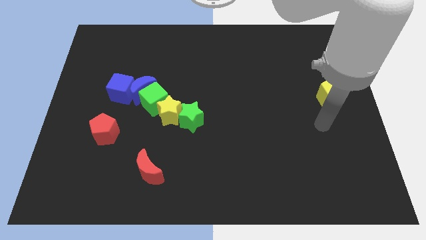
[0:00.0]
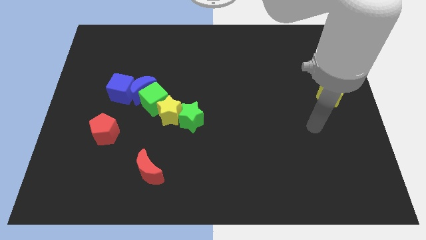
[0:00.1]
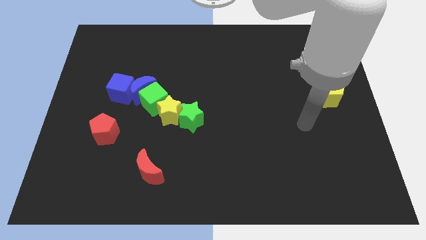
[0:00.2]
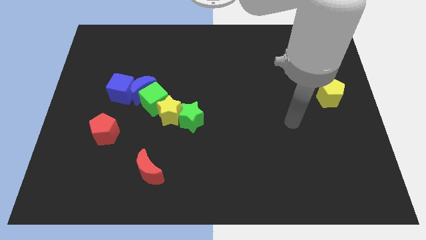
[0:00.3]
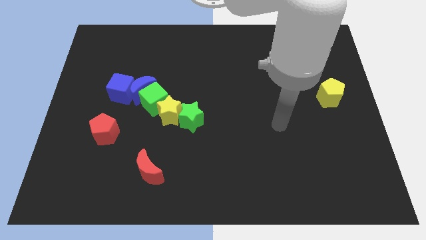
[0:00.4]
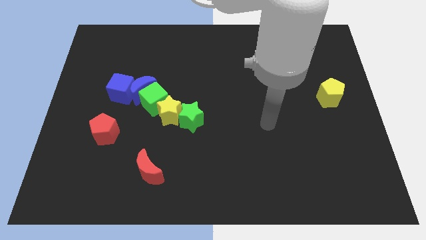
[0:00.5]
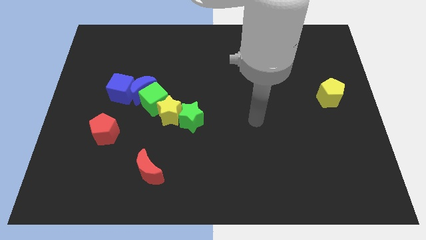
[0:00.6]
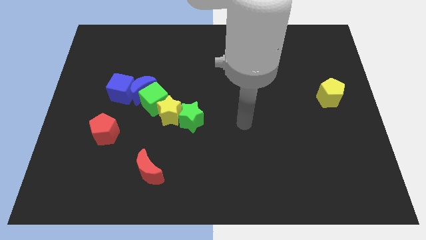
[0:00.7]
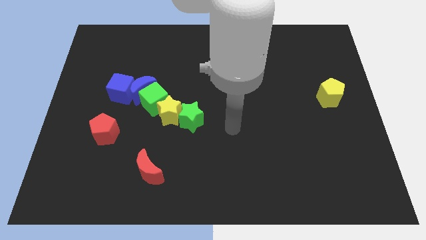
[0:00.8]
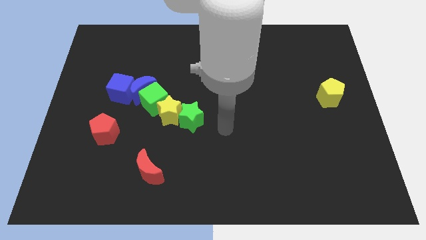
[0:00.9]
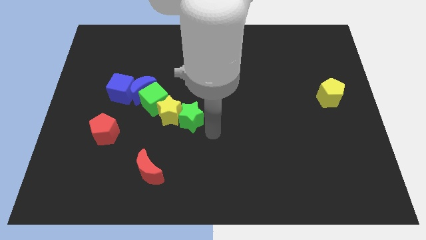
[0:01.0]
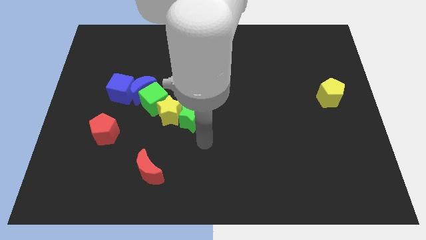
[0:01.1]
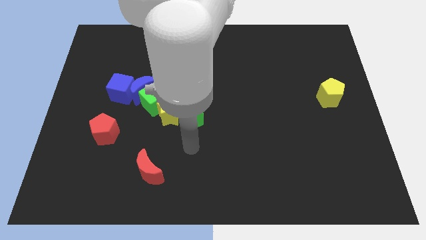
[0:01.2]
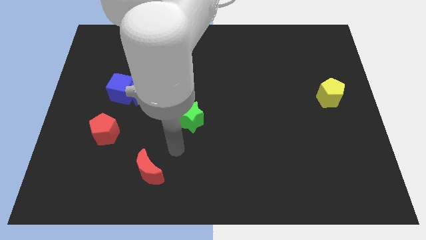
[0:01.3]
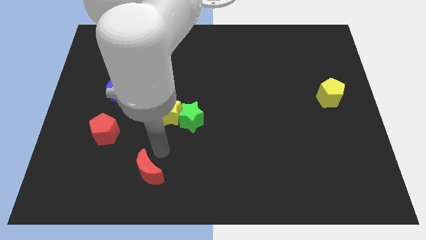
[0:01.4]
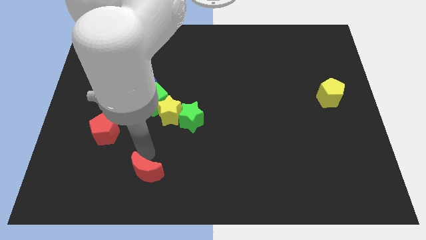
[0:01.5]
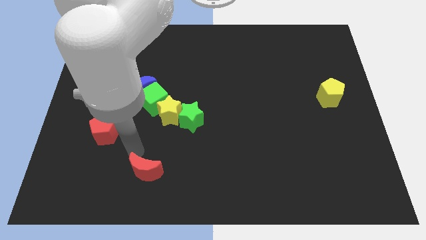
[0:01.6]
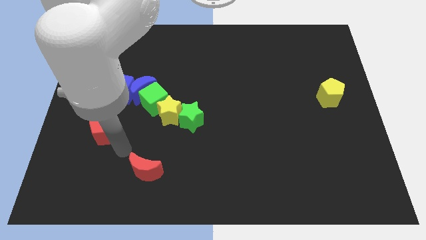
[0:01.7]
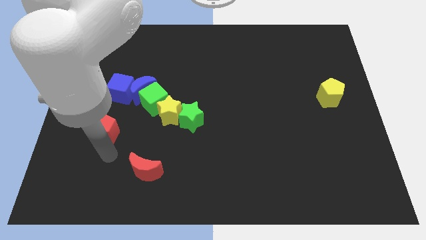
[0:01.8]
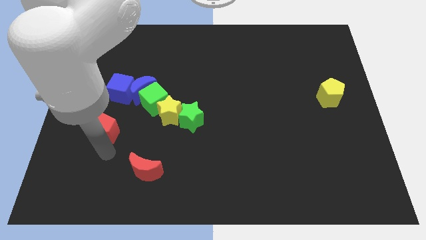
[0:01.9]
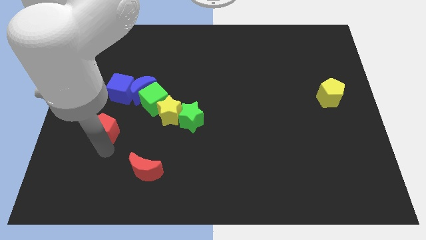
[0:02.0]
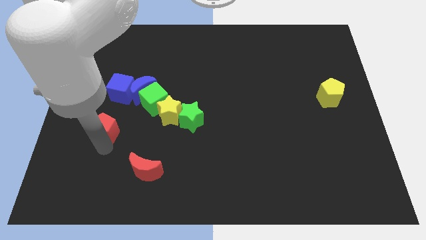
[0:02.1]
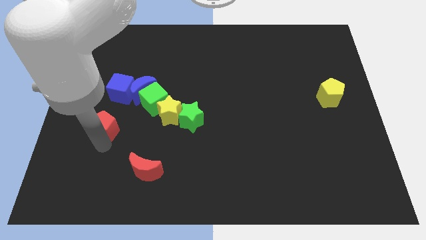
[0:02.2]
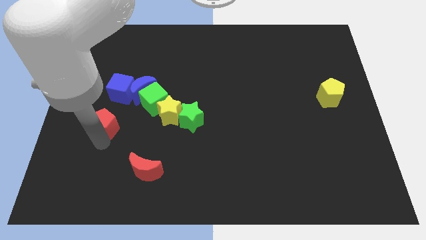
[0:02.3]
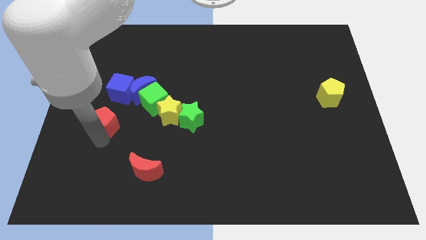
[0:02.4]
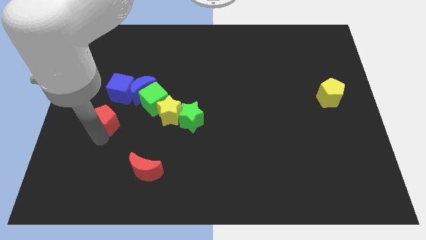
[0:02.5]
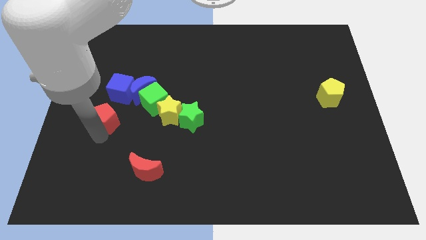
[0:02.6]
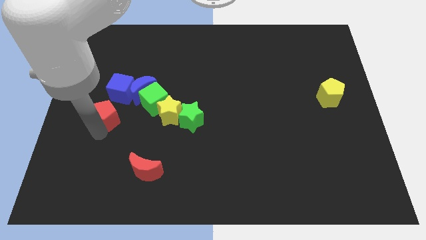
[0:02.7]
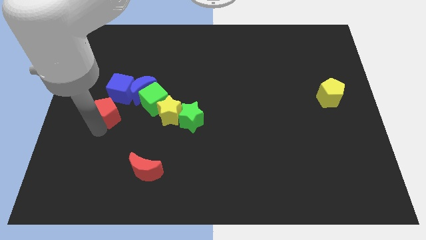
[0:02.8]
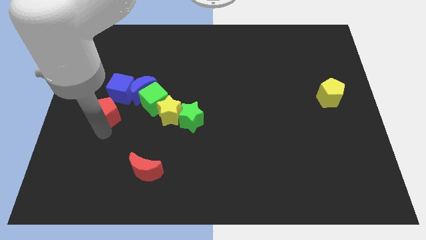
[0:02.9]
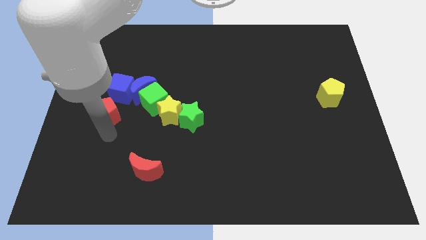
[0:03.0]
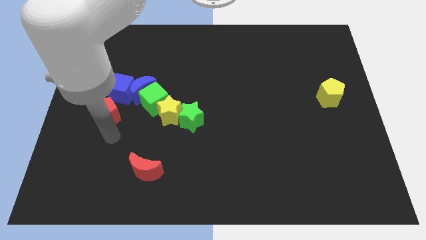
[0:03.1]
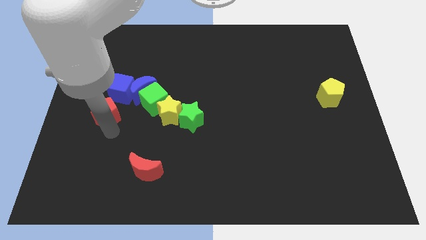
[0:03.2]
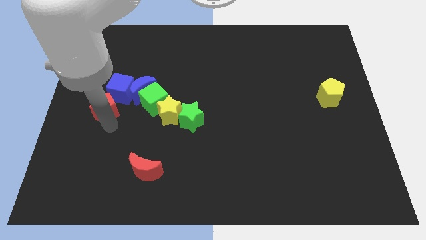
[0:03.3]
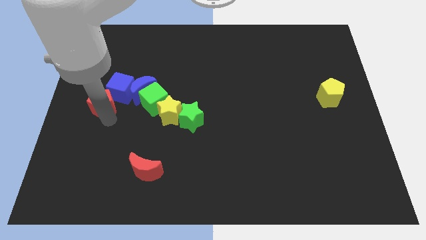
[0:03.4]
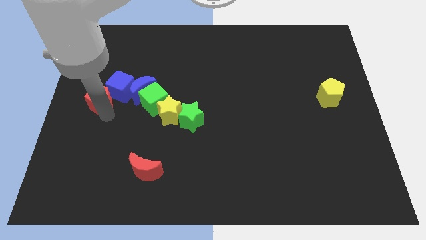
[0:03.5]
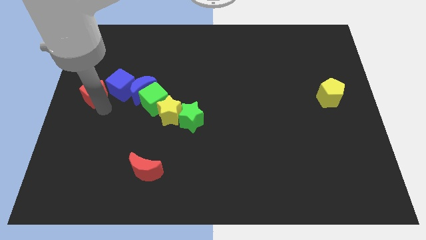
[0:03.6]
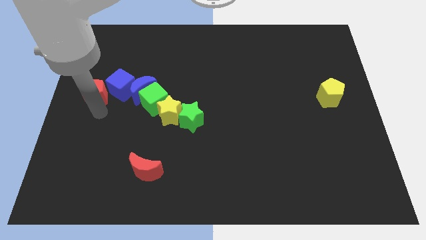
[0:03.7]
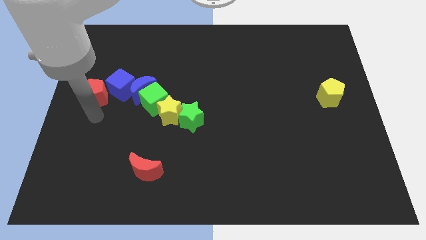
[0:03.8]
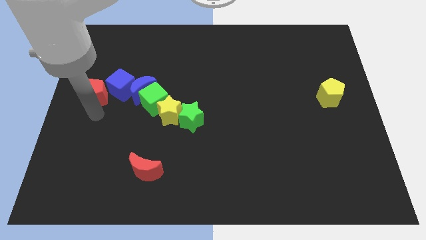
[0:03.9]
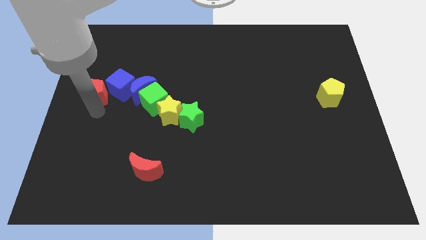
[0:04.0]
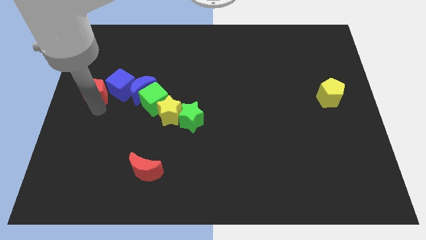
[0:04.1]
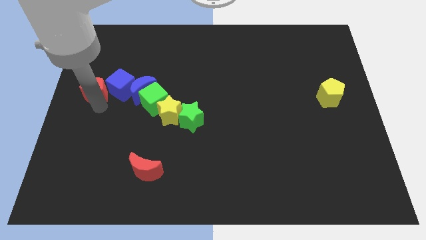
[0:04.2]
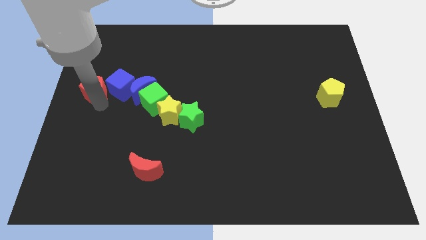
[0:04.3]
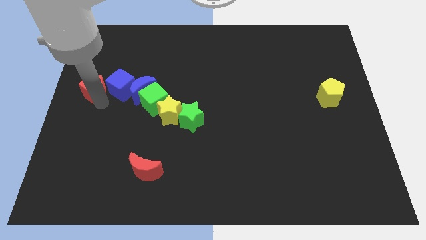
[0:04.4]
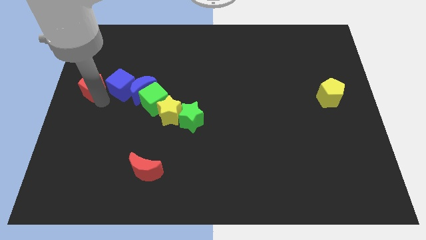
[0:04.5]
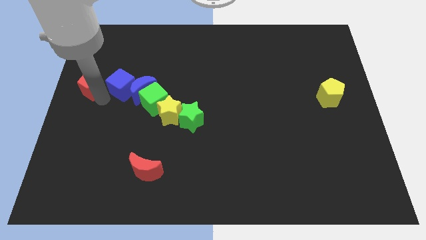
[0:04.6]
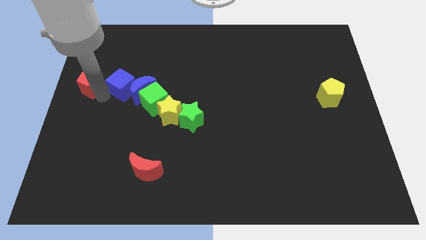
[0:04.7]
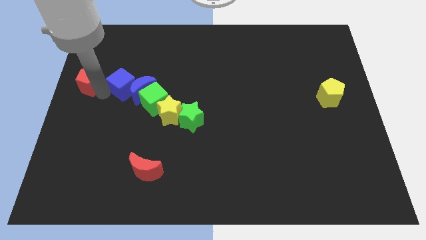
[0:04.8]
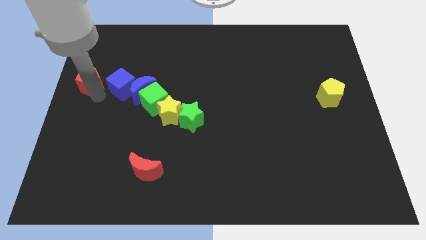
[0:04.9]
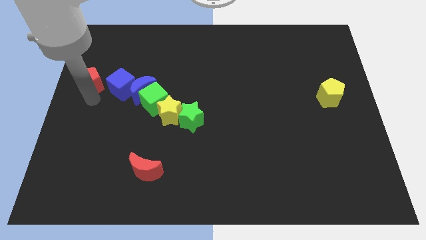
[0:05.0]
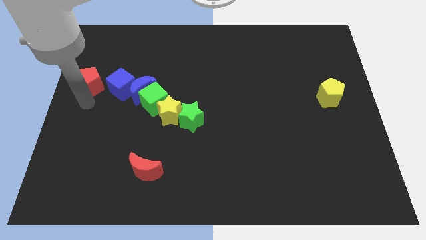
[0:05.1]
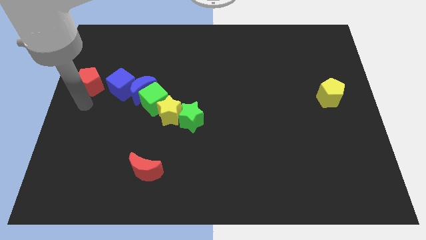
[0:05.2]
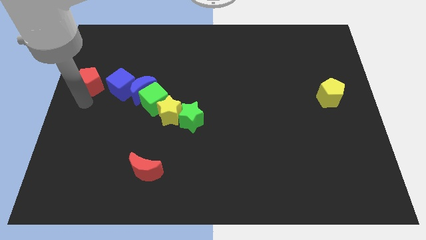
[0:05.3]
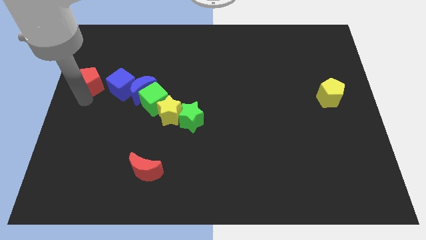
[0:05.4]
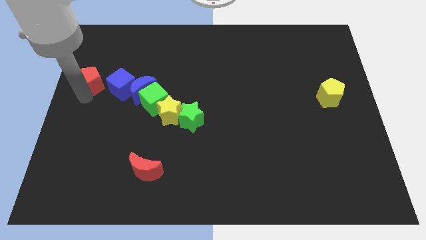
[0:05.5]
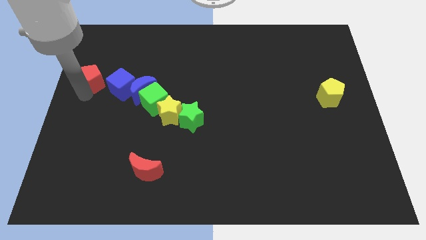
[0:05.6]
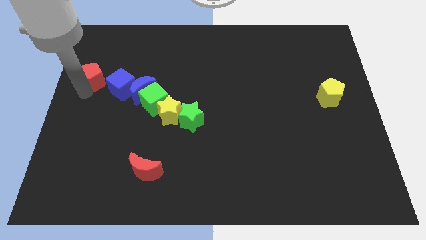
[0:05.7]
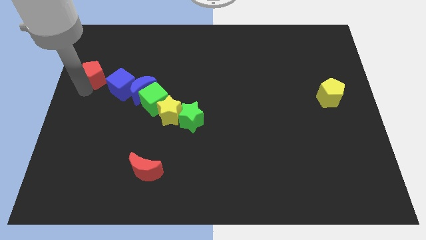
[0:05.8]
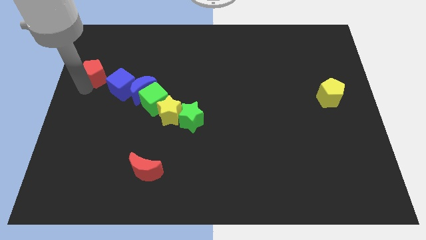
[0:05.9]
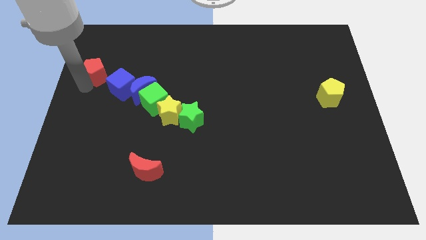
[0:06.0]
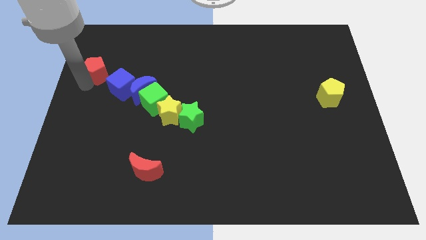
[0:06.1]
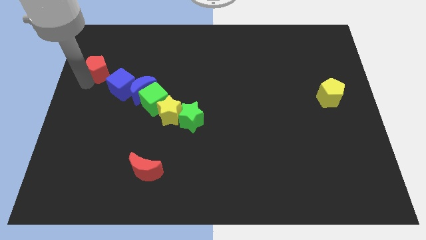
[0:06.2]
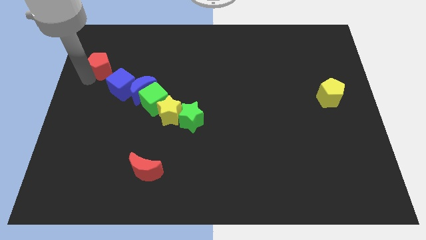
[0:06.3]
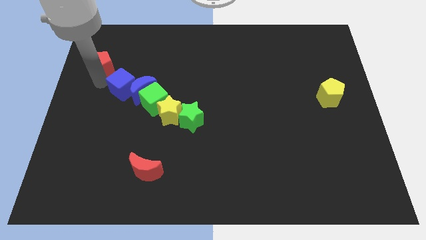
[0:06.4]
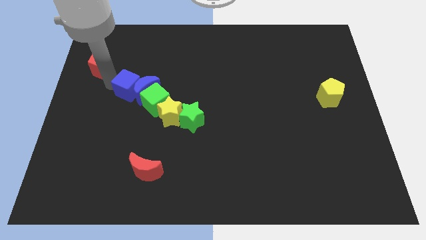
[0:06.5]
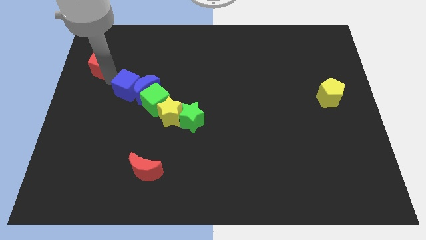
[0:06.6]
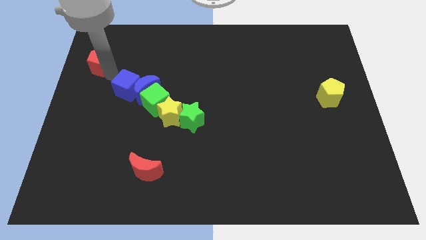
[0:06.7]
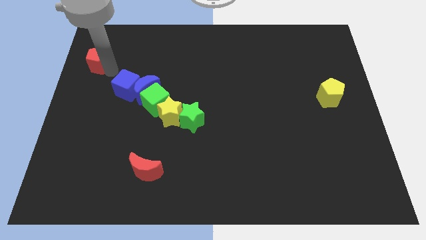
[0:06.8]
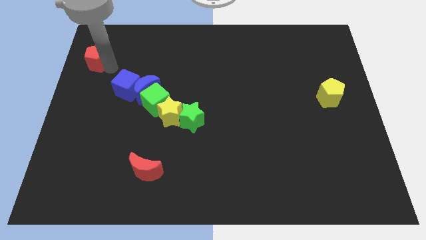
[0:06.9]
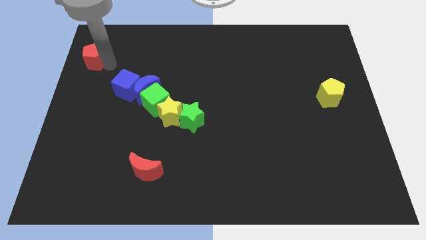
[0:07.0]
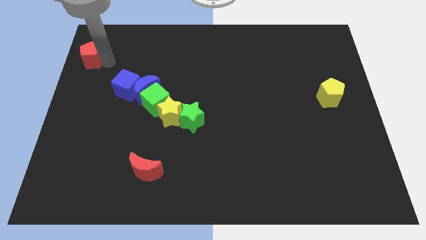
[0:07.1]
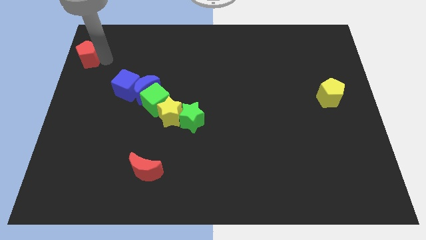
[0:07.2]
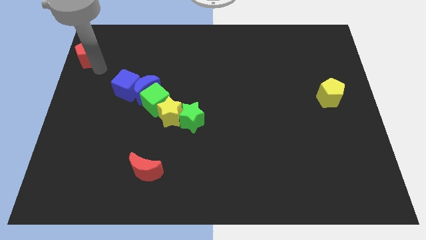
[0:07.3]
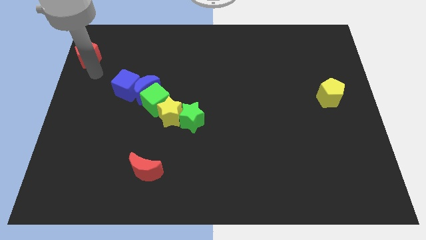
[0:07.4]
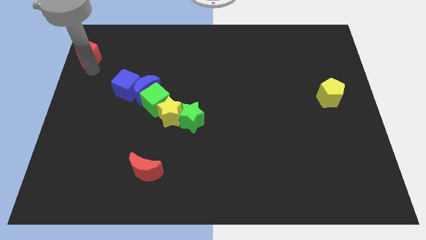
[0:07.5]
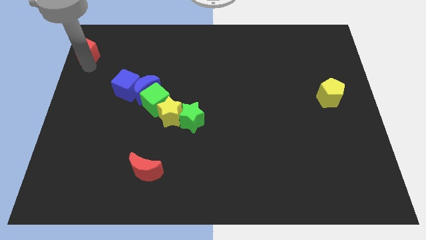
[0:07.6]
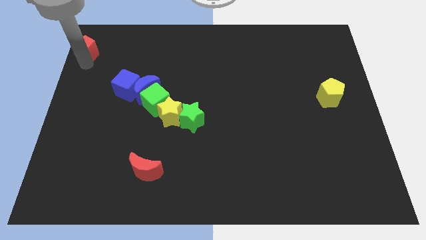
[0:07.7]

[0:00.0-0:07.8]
push the red pentagon to the top left corner
